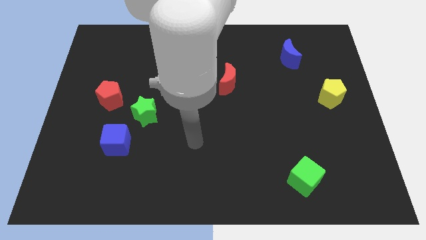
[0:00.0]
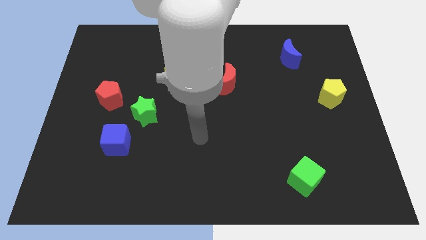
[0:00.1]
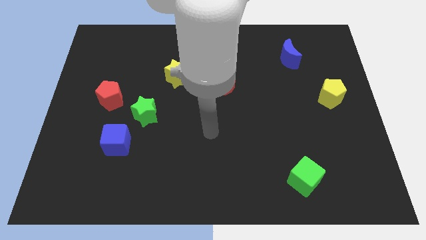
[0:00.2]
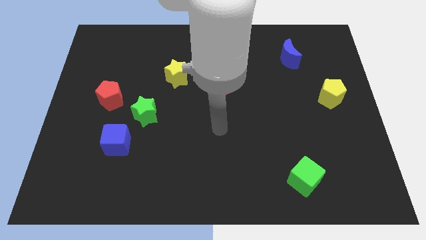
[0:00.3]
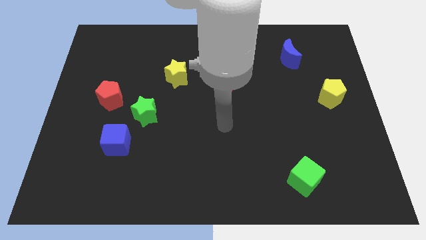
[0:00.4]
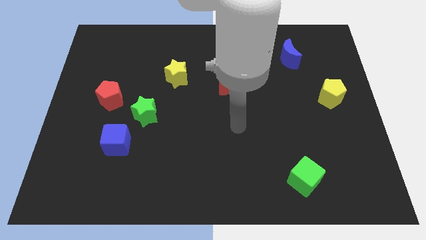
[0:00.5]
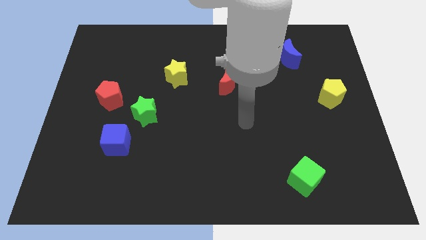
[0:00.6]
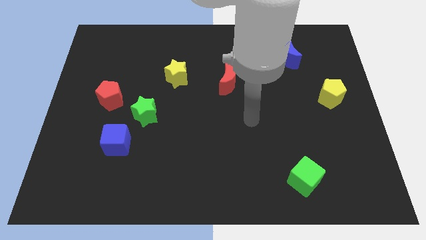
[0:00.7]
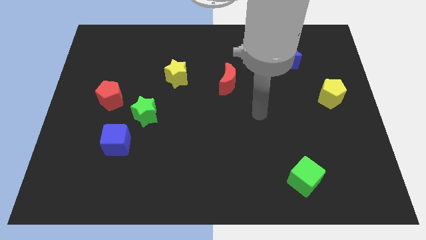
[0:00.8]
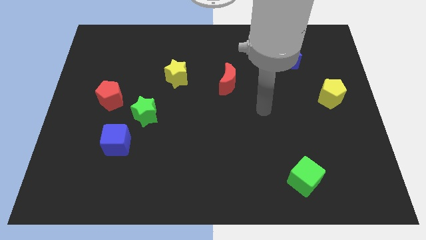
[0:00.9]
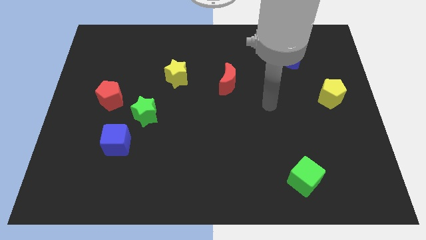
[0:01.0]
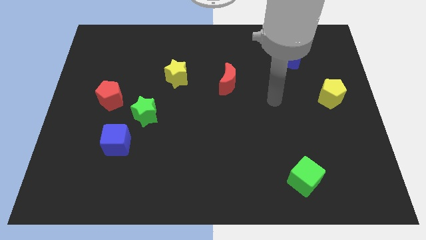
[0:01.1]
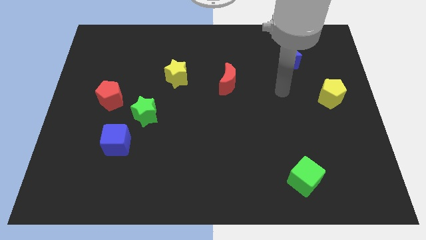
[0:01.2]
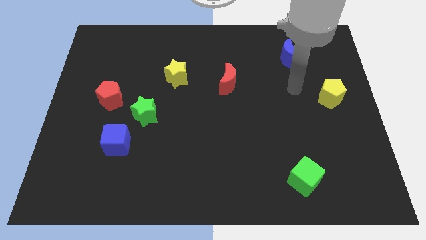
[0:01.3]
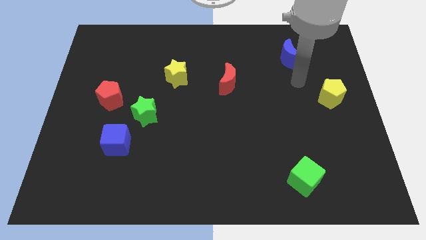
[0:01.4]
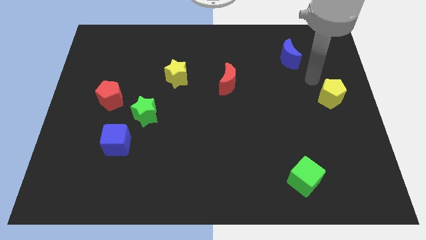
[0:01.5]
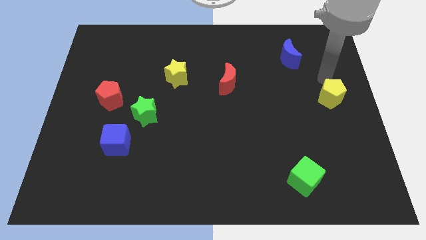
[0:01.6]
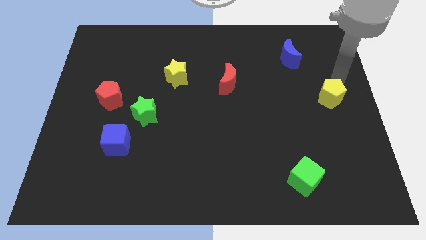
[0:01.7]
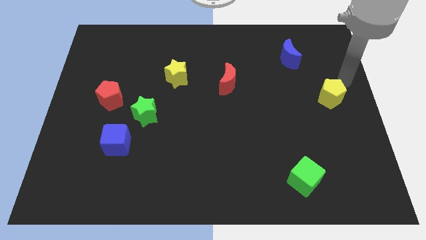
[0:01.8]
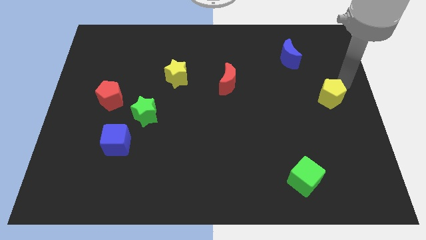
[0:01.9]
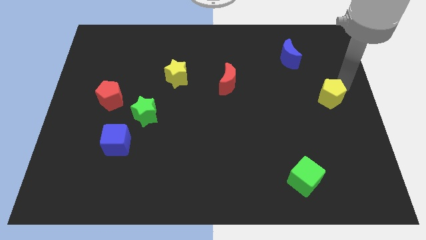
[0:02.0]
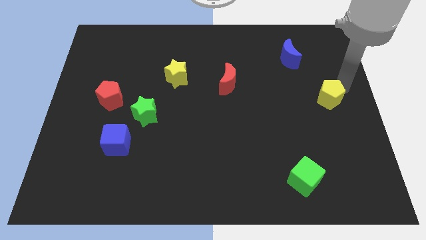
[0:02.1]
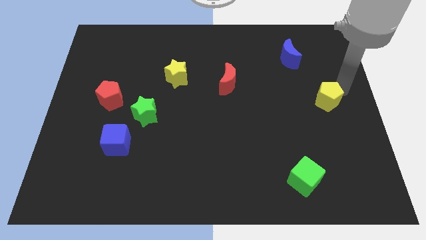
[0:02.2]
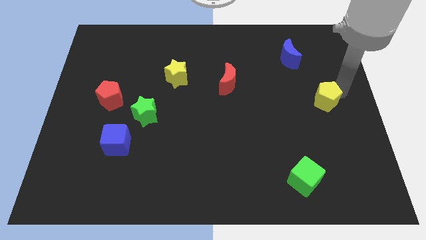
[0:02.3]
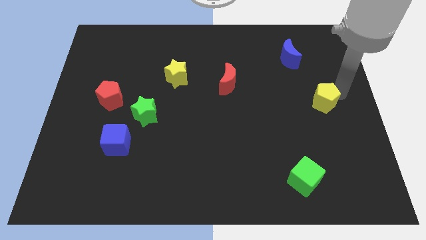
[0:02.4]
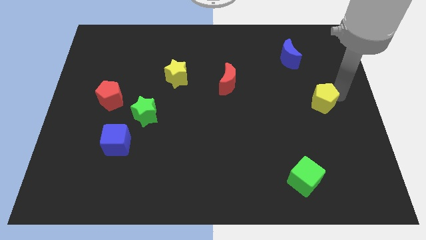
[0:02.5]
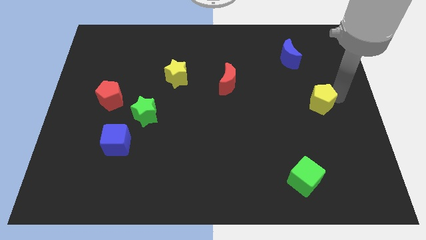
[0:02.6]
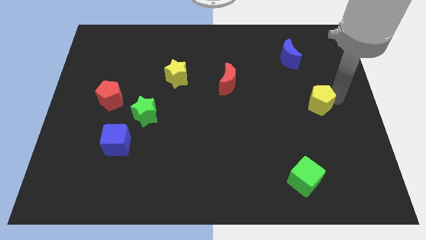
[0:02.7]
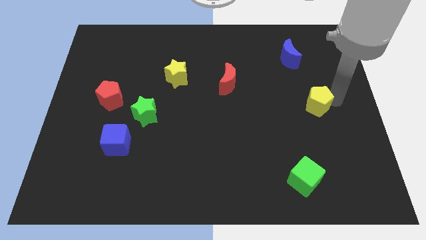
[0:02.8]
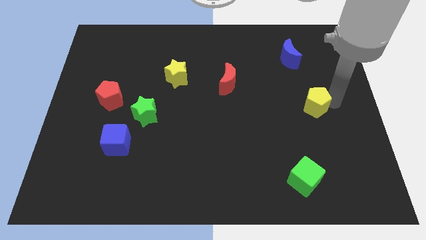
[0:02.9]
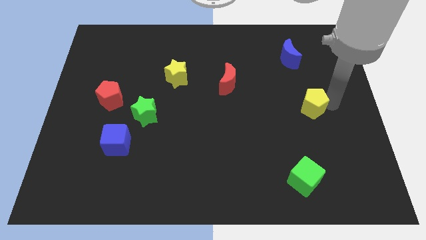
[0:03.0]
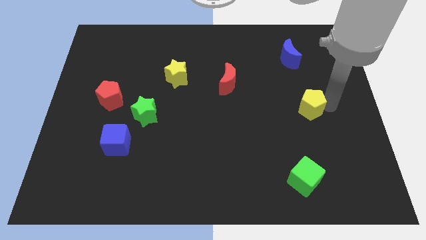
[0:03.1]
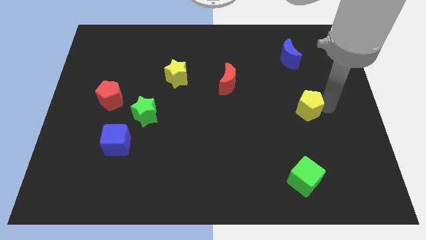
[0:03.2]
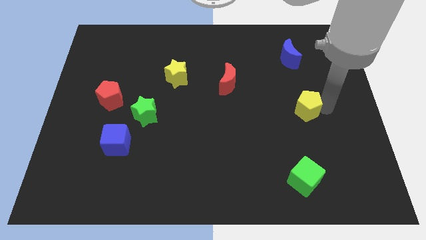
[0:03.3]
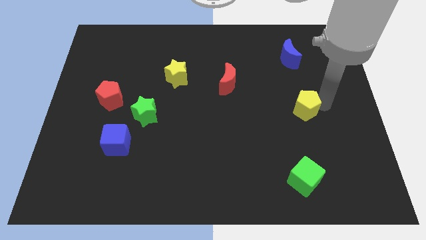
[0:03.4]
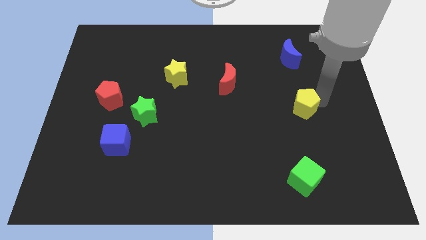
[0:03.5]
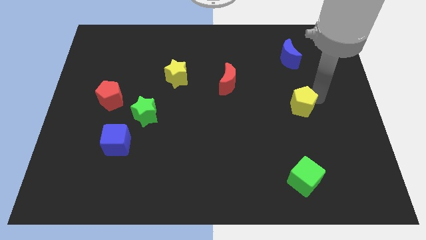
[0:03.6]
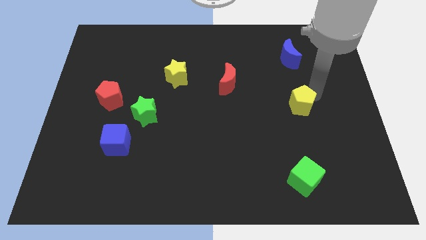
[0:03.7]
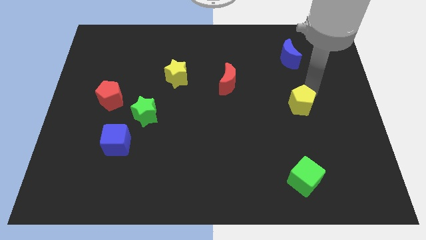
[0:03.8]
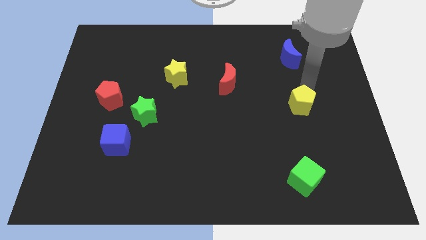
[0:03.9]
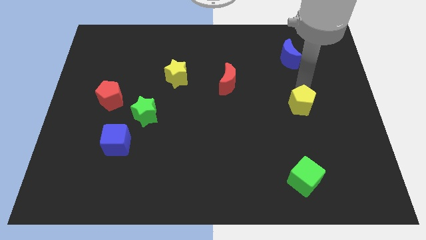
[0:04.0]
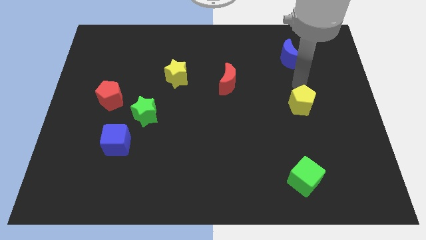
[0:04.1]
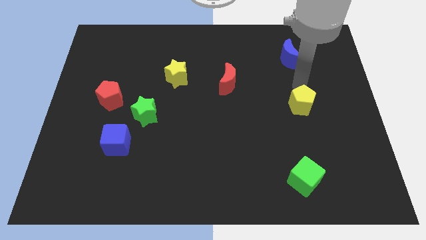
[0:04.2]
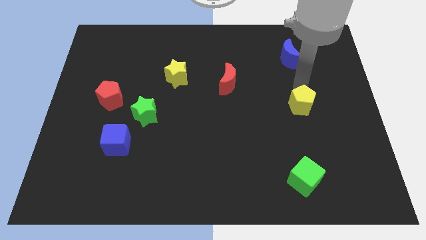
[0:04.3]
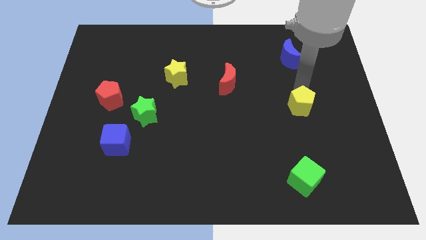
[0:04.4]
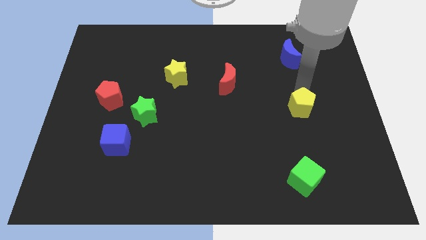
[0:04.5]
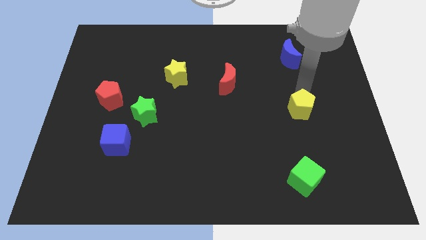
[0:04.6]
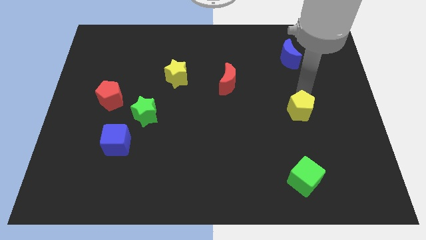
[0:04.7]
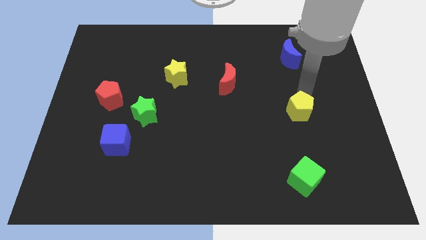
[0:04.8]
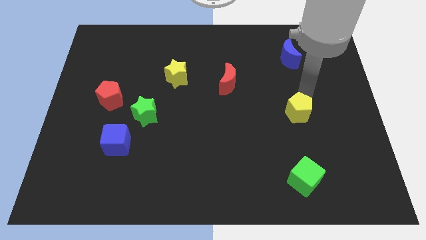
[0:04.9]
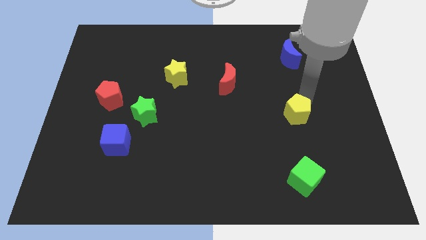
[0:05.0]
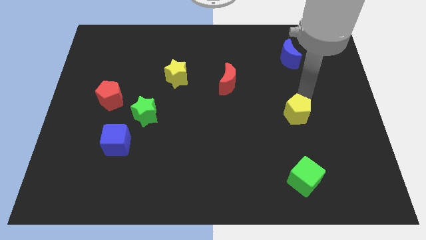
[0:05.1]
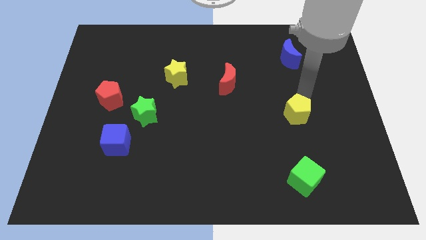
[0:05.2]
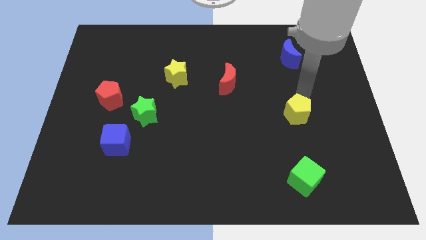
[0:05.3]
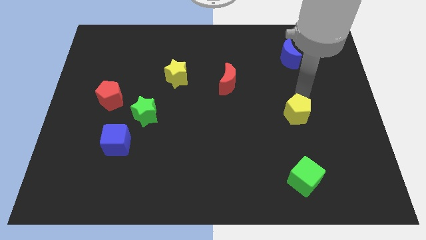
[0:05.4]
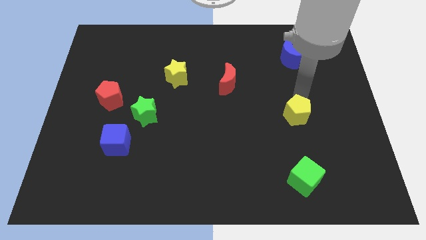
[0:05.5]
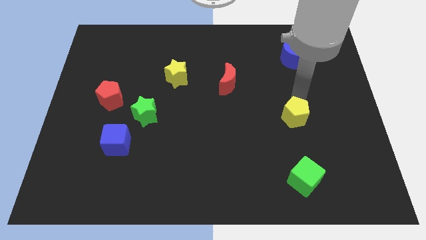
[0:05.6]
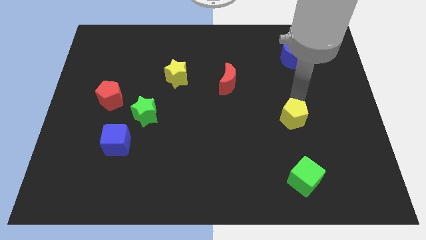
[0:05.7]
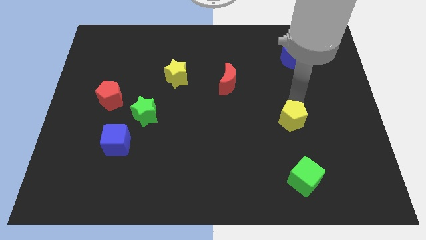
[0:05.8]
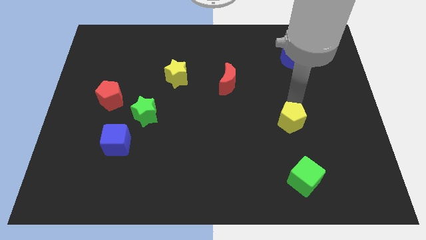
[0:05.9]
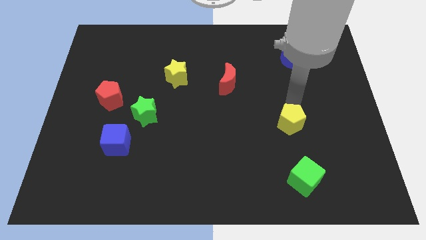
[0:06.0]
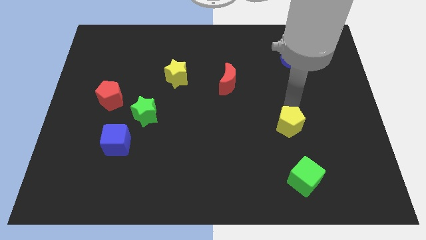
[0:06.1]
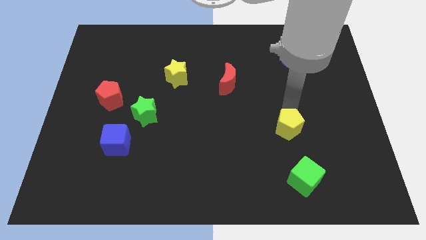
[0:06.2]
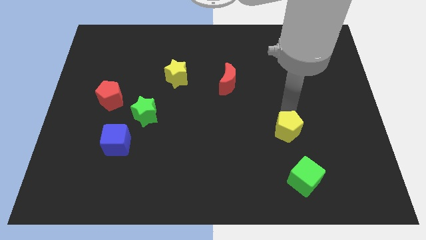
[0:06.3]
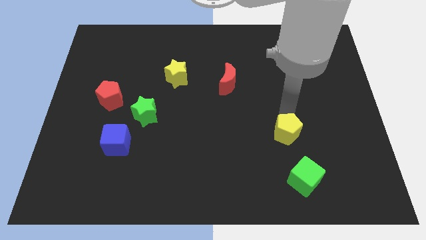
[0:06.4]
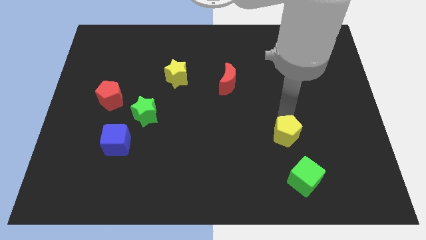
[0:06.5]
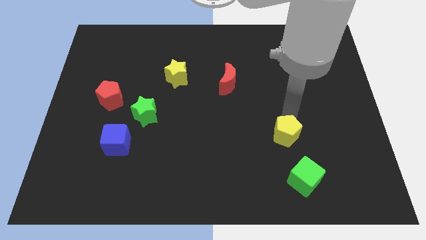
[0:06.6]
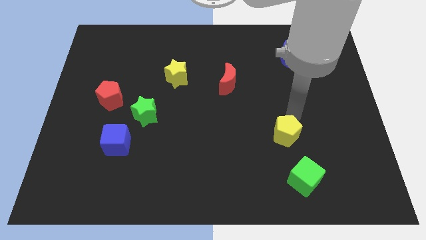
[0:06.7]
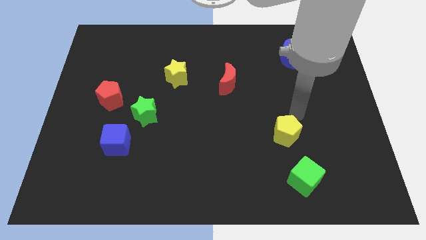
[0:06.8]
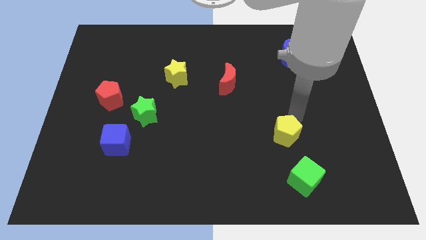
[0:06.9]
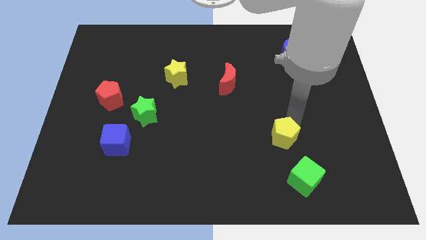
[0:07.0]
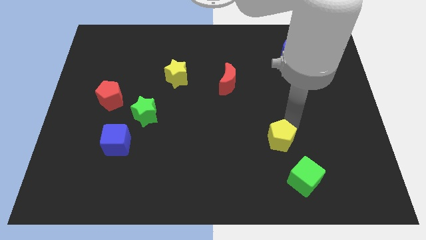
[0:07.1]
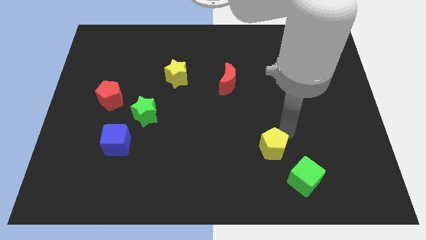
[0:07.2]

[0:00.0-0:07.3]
slide the yellow pentagon diagonally downwards and left

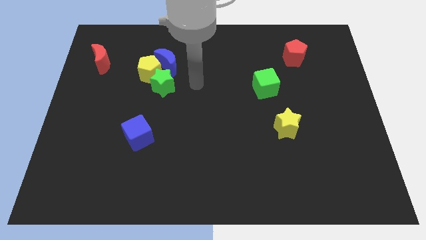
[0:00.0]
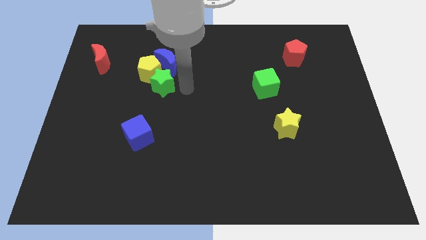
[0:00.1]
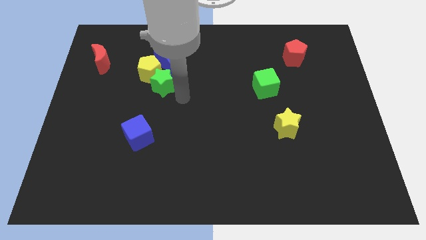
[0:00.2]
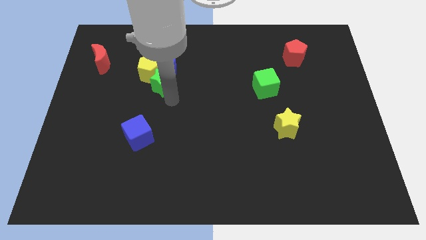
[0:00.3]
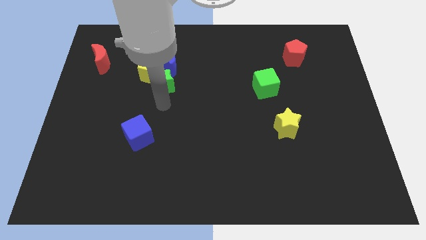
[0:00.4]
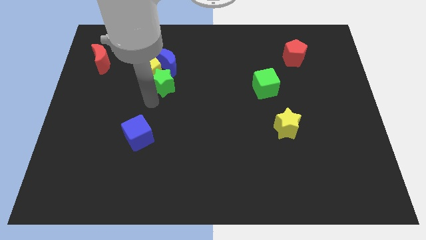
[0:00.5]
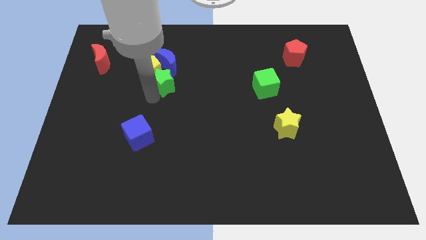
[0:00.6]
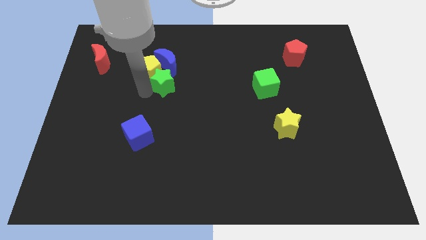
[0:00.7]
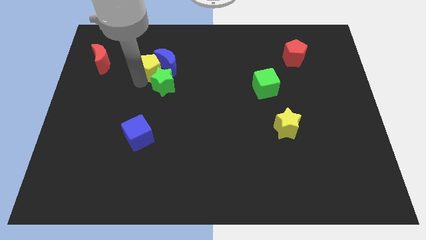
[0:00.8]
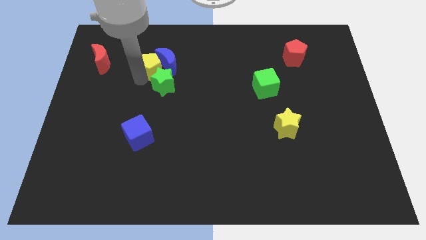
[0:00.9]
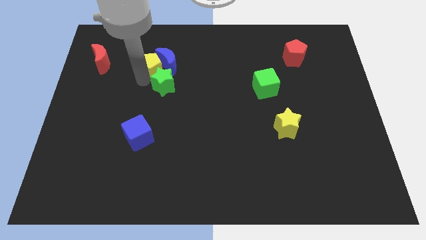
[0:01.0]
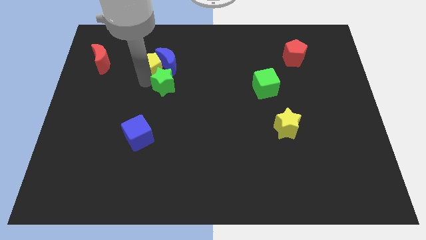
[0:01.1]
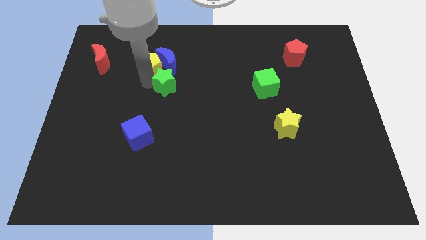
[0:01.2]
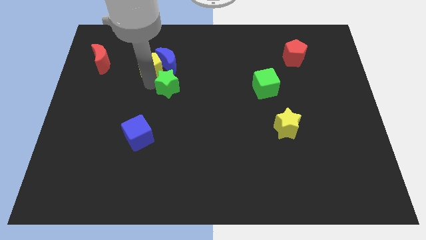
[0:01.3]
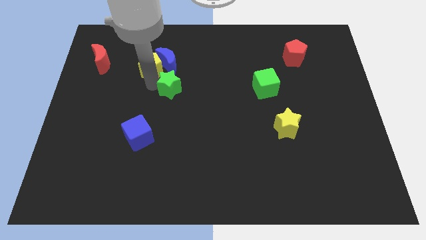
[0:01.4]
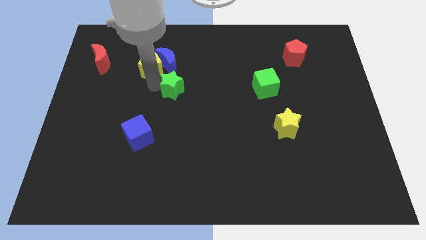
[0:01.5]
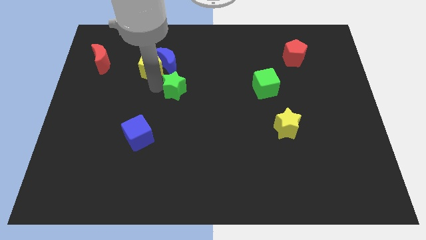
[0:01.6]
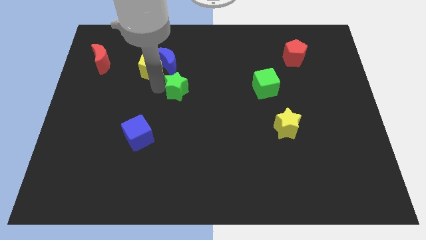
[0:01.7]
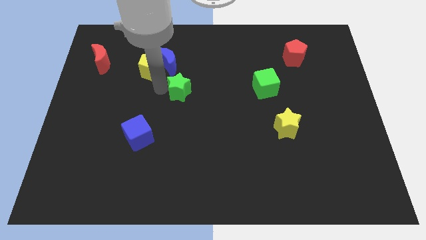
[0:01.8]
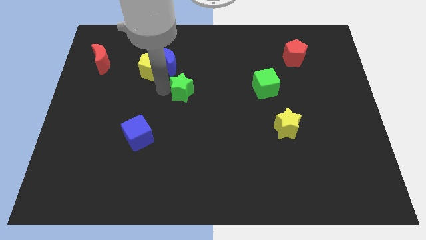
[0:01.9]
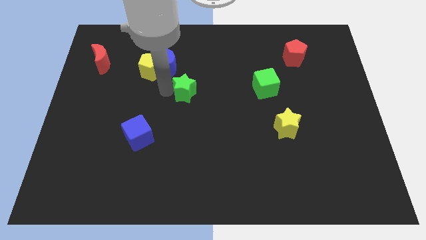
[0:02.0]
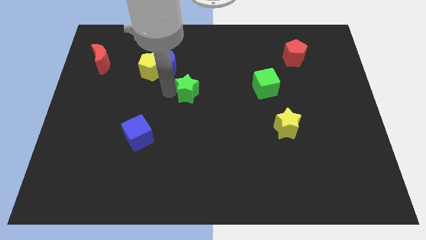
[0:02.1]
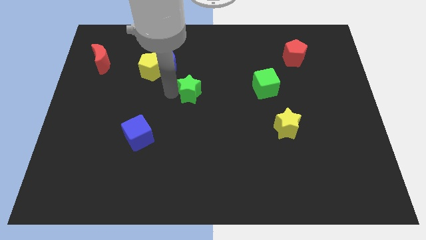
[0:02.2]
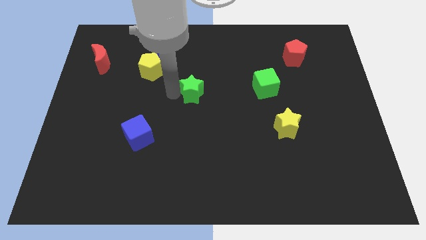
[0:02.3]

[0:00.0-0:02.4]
slightly slide the green star right
